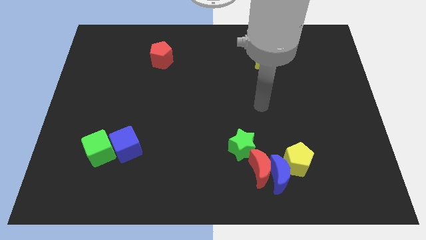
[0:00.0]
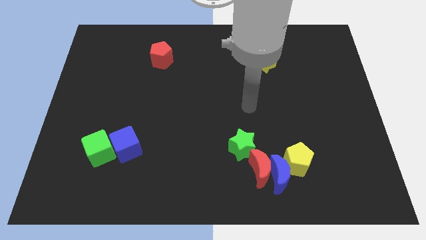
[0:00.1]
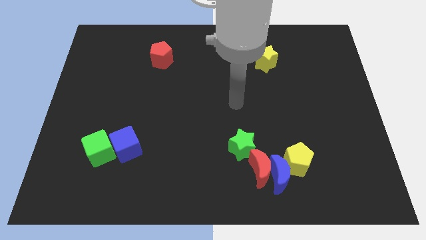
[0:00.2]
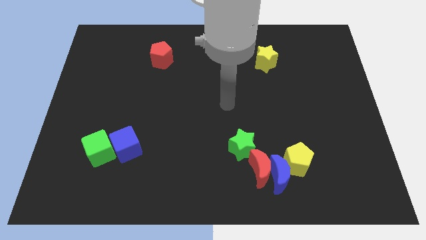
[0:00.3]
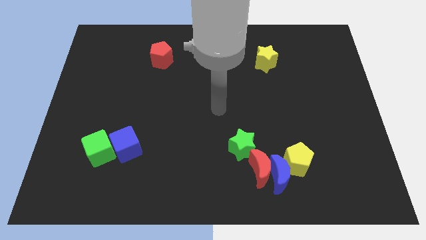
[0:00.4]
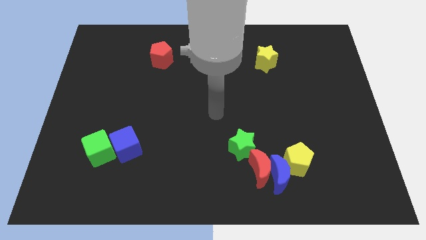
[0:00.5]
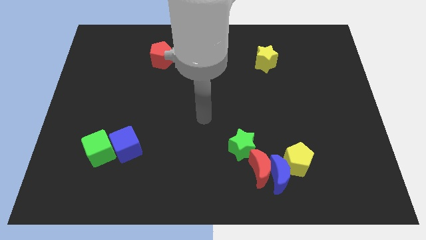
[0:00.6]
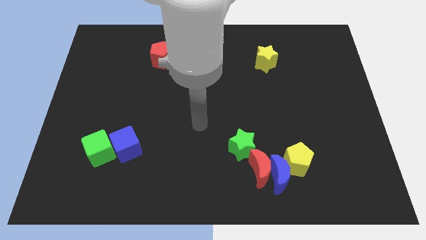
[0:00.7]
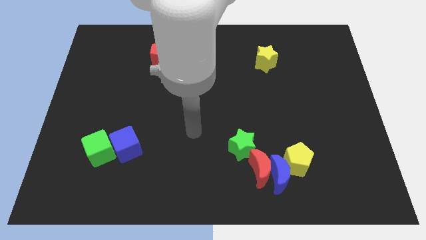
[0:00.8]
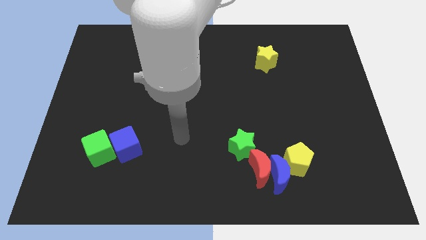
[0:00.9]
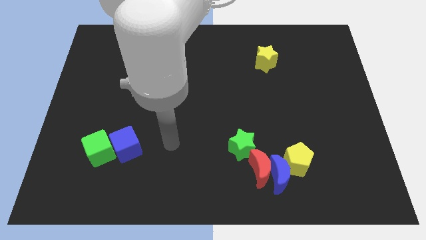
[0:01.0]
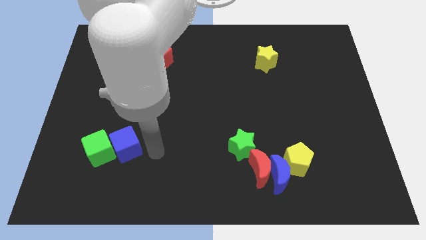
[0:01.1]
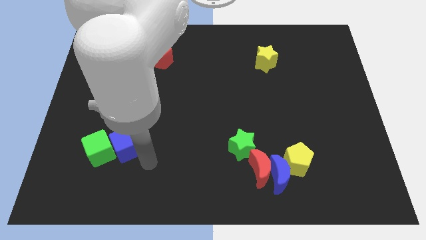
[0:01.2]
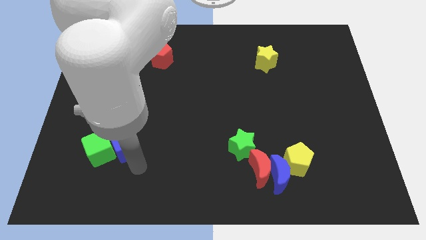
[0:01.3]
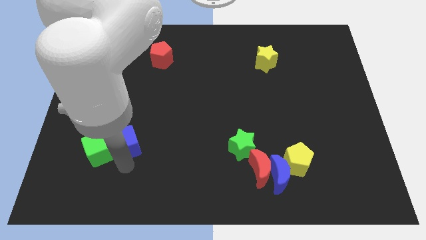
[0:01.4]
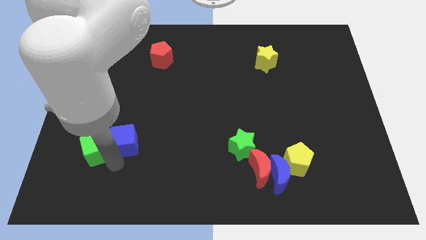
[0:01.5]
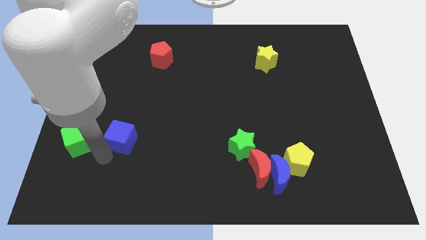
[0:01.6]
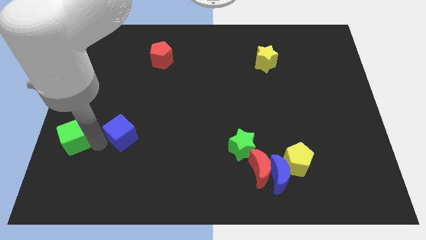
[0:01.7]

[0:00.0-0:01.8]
separate the blue cube from the green cube

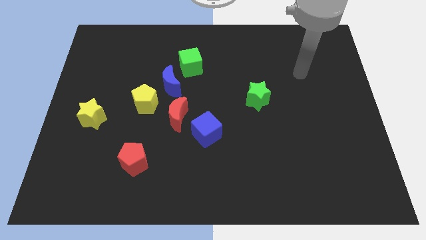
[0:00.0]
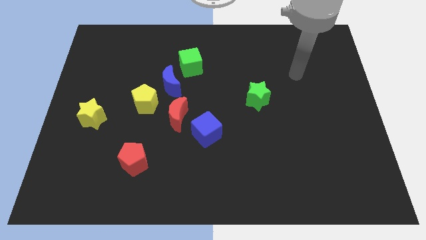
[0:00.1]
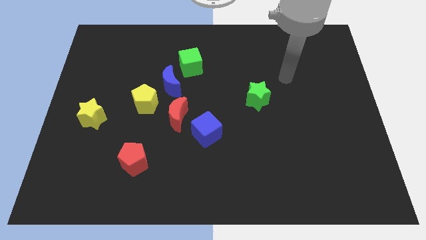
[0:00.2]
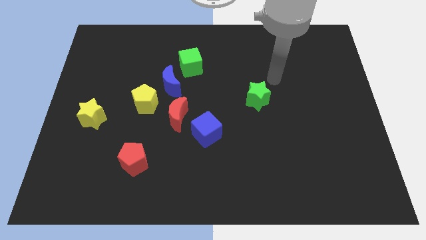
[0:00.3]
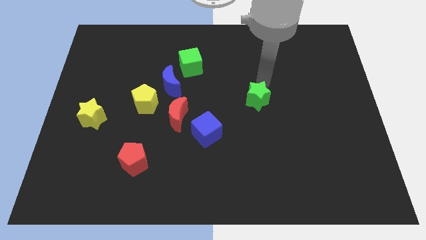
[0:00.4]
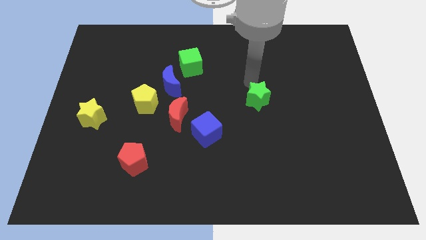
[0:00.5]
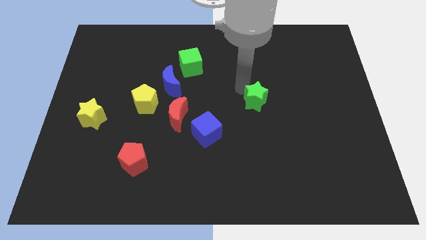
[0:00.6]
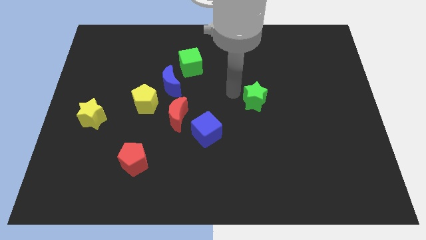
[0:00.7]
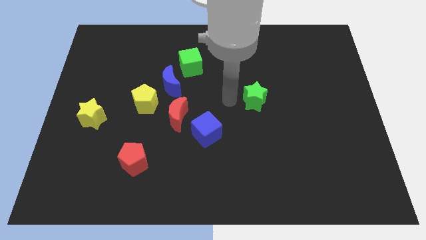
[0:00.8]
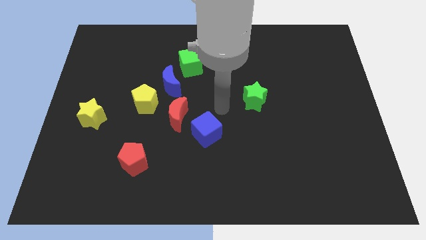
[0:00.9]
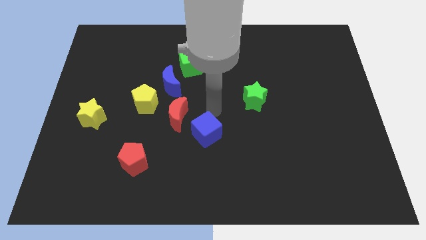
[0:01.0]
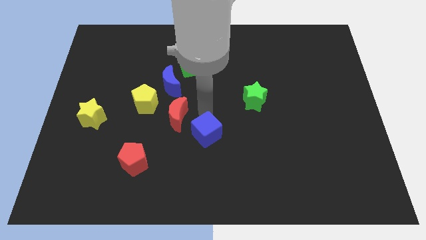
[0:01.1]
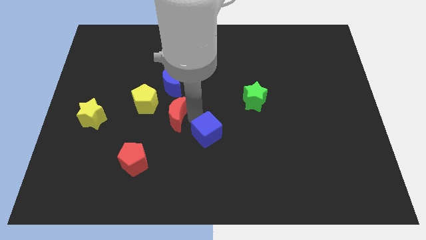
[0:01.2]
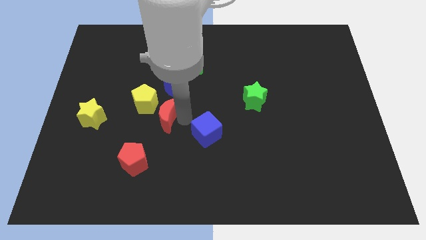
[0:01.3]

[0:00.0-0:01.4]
move the blue cube away from the red moon

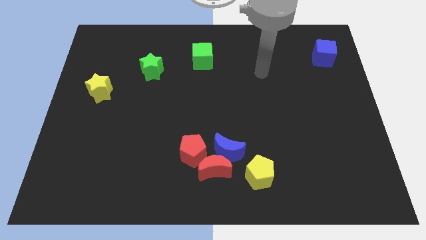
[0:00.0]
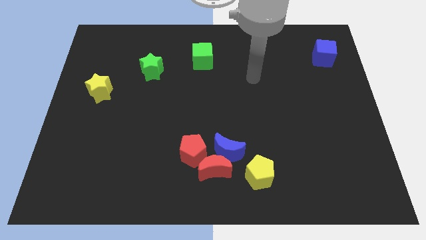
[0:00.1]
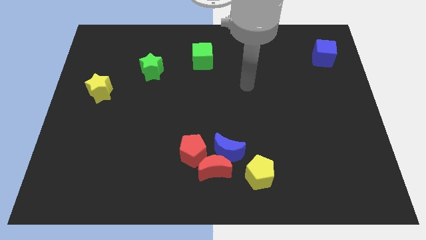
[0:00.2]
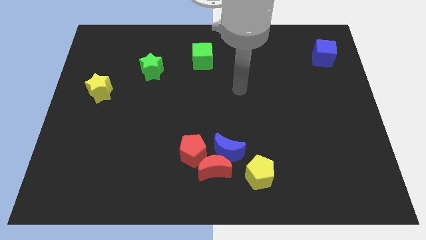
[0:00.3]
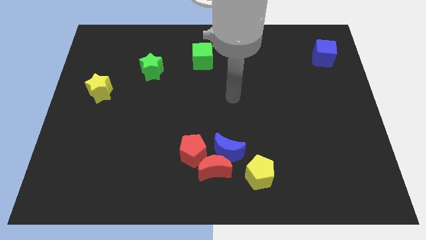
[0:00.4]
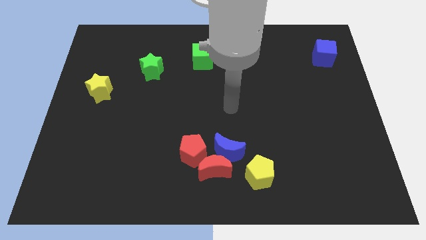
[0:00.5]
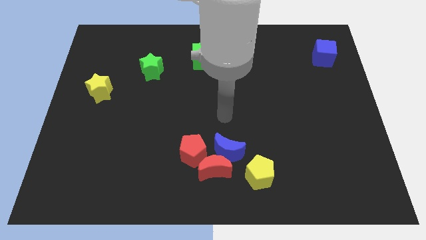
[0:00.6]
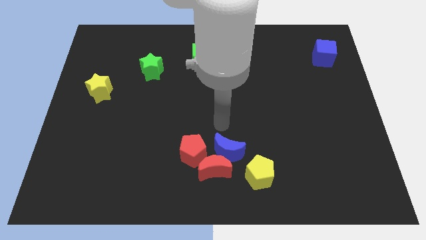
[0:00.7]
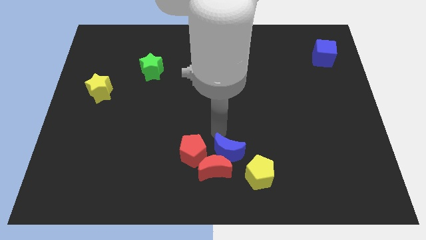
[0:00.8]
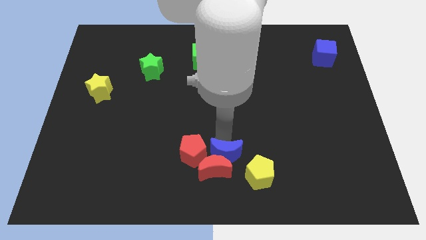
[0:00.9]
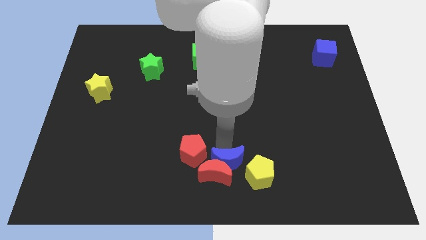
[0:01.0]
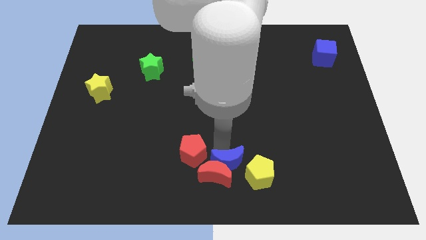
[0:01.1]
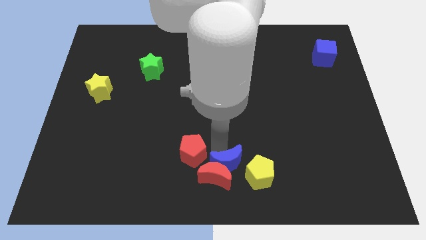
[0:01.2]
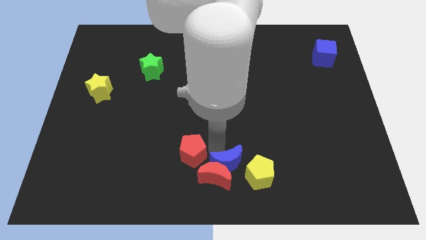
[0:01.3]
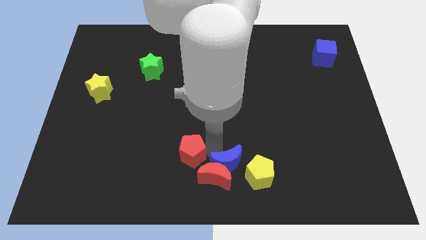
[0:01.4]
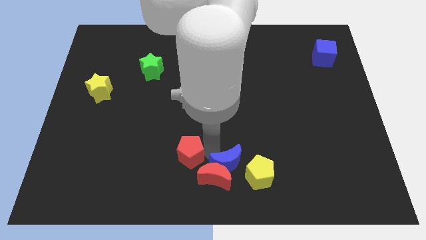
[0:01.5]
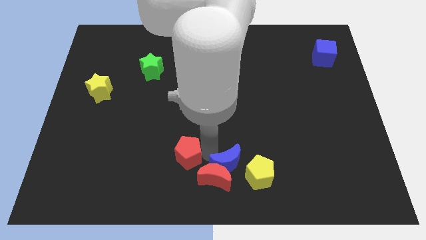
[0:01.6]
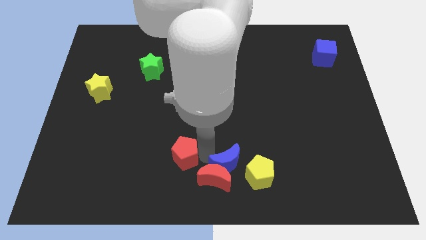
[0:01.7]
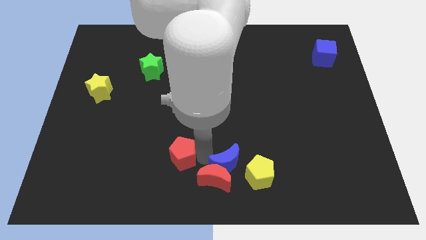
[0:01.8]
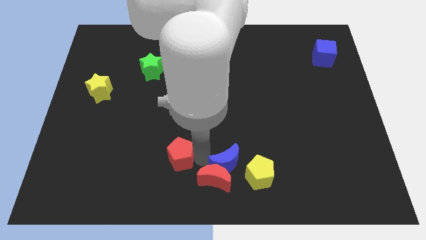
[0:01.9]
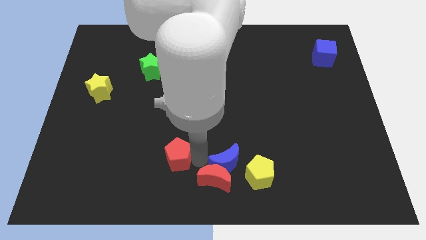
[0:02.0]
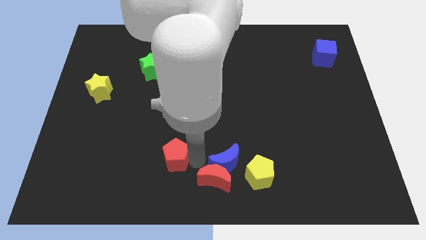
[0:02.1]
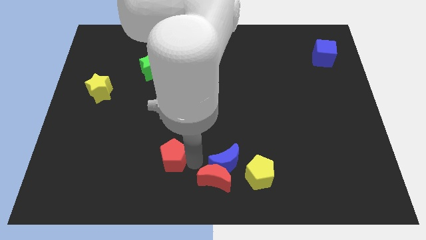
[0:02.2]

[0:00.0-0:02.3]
move the red pentagon away from the red moon and blue moon

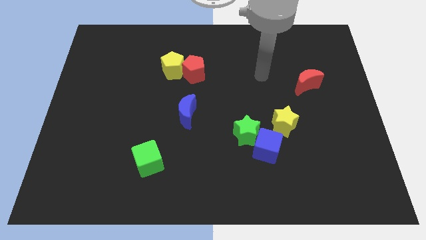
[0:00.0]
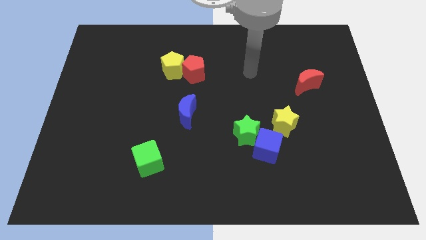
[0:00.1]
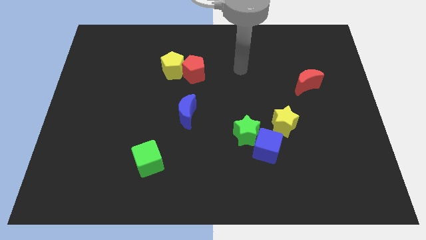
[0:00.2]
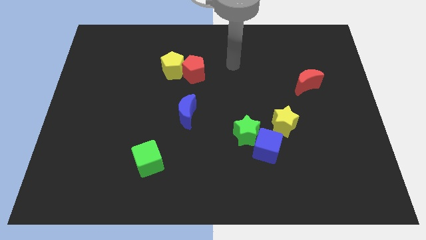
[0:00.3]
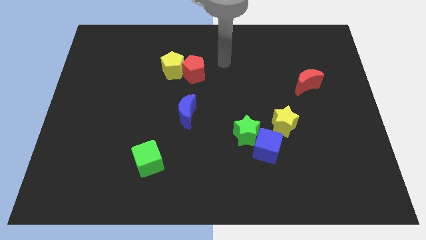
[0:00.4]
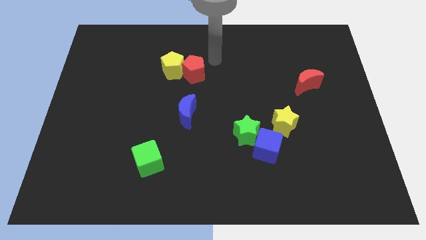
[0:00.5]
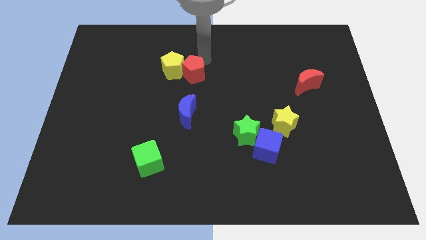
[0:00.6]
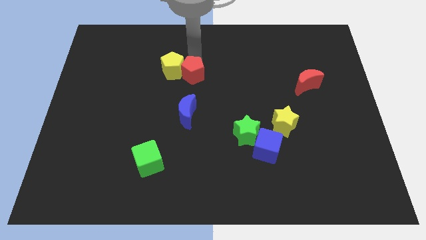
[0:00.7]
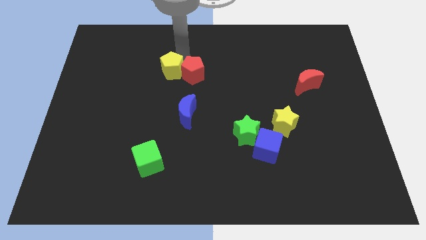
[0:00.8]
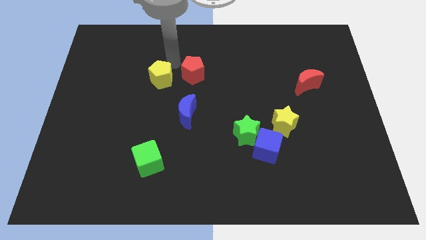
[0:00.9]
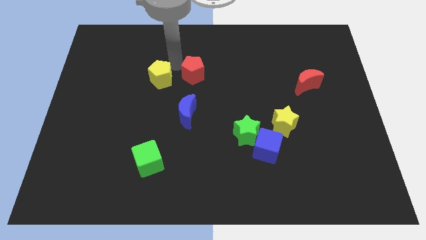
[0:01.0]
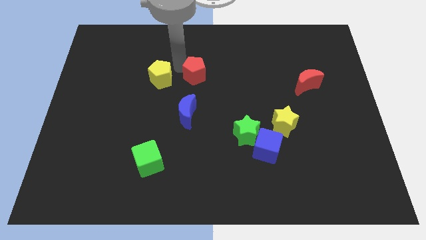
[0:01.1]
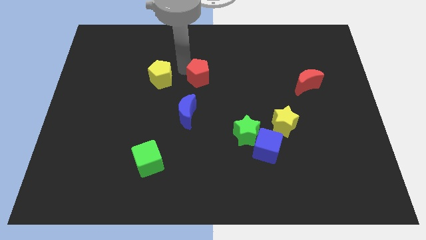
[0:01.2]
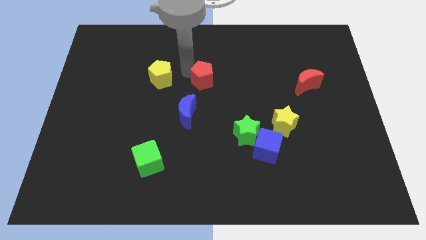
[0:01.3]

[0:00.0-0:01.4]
separate the red pentagon from the yellow pentagon

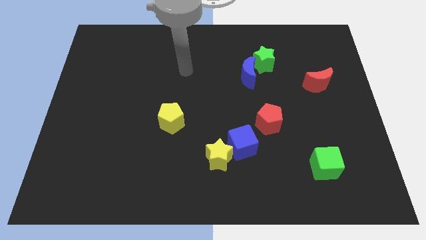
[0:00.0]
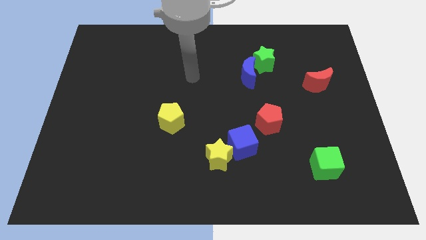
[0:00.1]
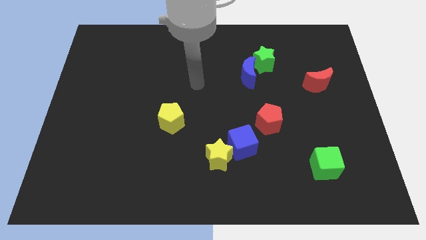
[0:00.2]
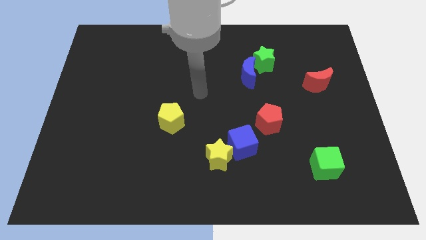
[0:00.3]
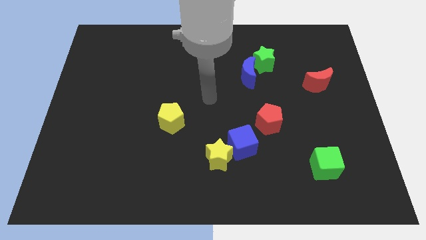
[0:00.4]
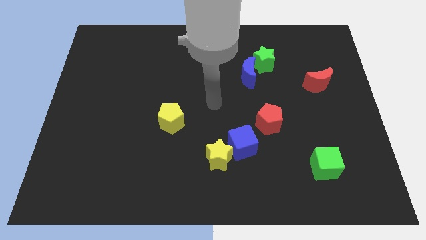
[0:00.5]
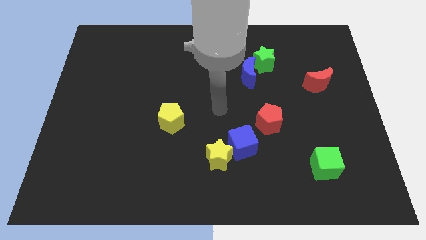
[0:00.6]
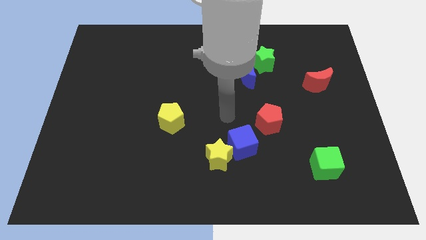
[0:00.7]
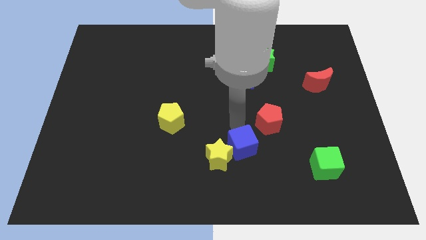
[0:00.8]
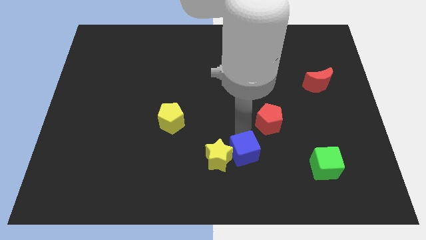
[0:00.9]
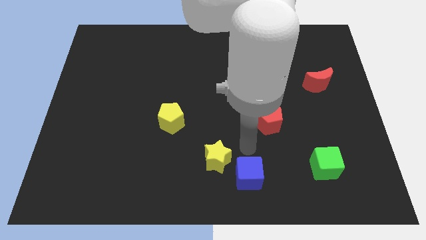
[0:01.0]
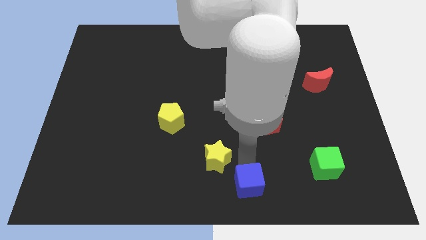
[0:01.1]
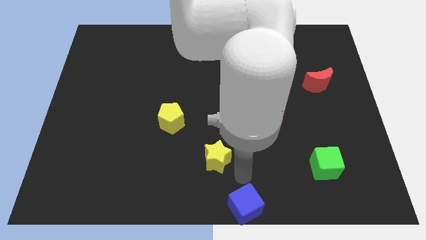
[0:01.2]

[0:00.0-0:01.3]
pull the yellow star apart from the blue cube

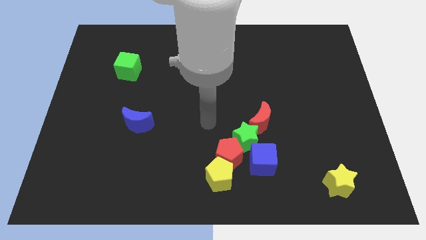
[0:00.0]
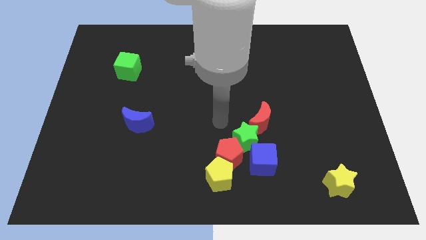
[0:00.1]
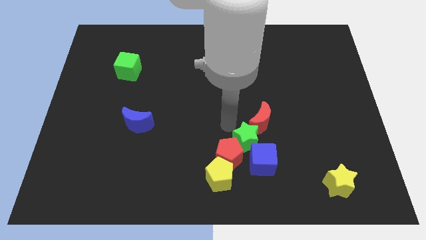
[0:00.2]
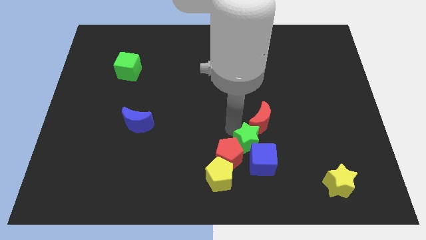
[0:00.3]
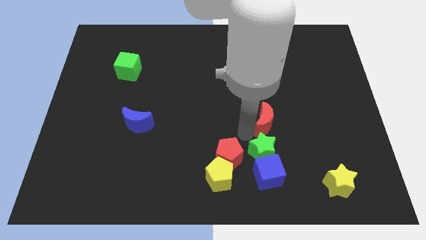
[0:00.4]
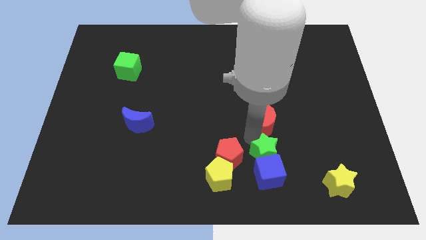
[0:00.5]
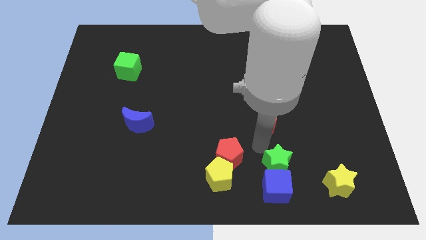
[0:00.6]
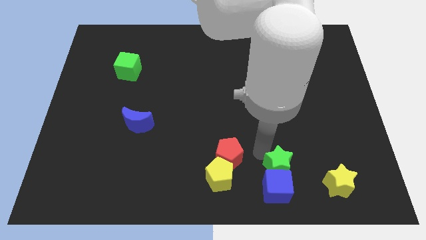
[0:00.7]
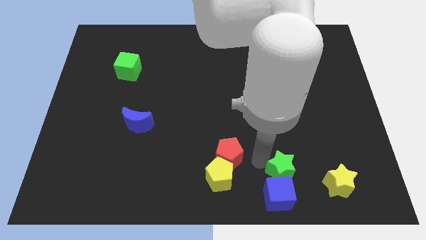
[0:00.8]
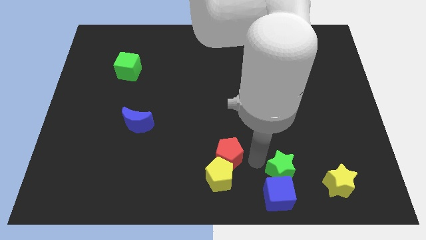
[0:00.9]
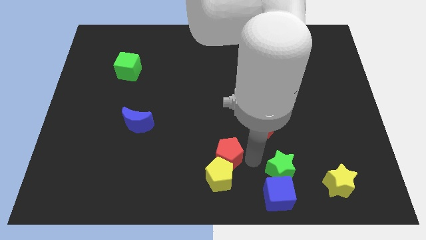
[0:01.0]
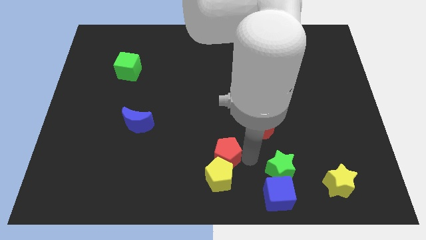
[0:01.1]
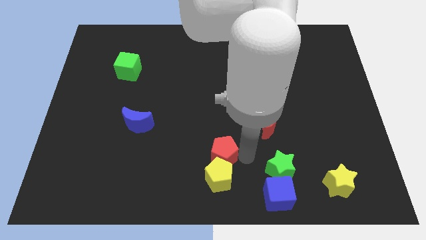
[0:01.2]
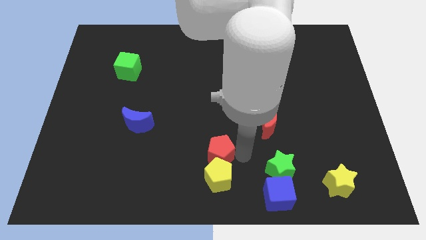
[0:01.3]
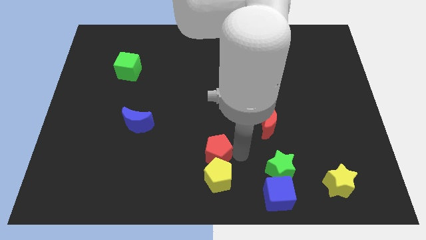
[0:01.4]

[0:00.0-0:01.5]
pull the red pentagon apart from the group
